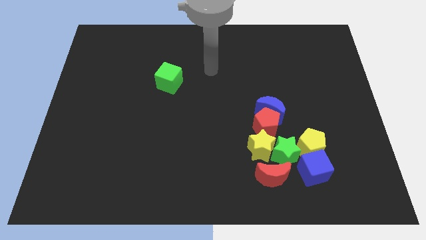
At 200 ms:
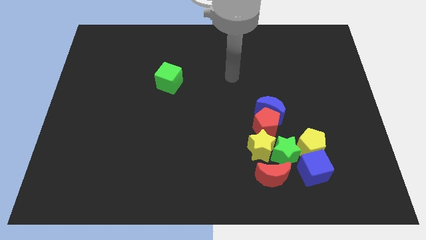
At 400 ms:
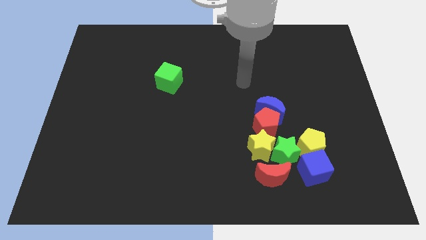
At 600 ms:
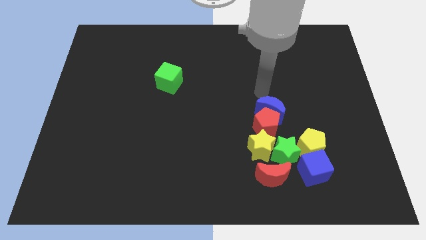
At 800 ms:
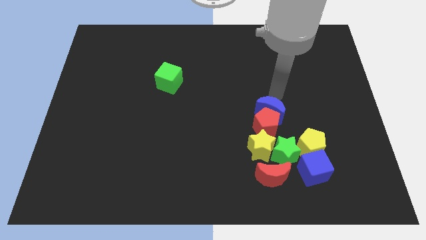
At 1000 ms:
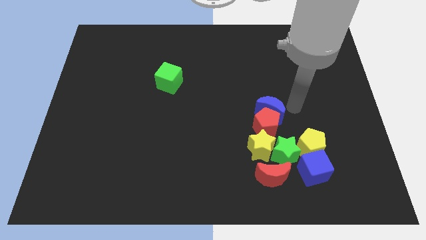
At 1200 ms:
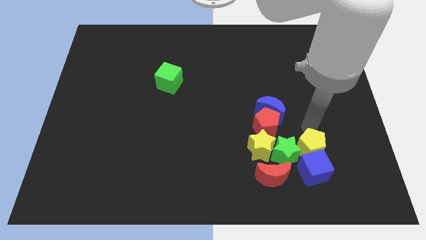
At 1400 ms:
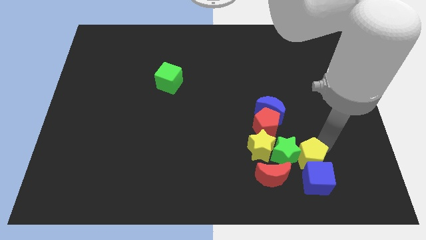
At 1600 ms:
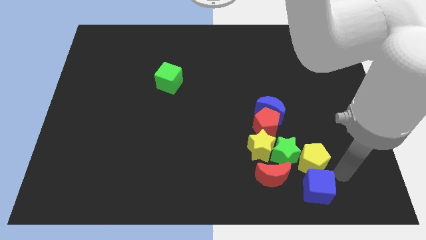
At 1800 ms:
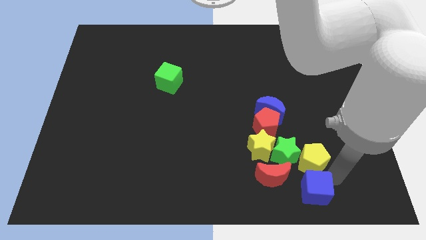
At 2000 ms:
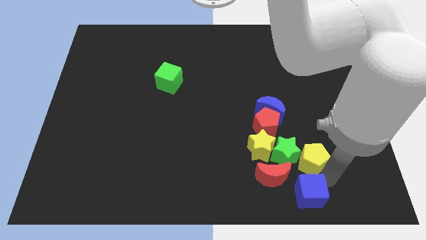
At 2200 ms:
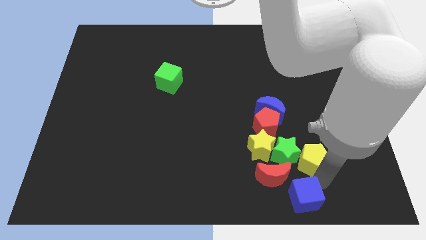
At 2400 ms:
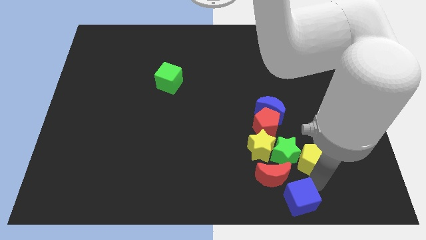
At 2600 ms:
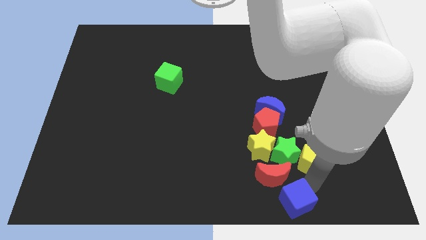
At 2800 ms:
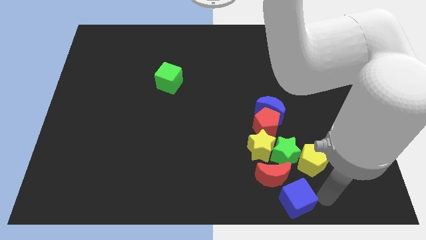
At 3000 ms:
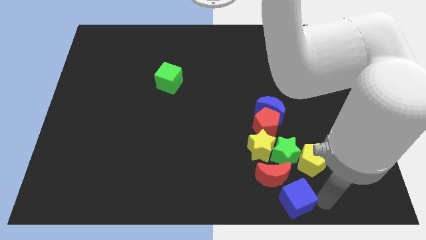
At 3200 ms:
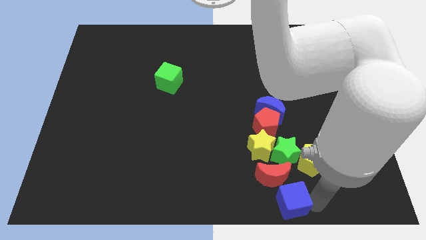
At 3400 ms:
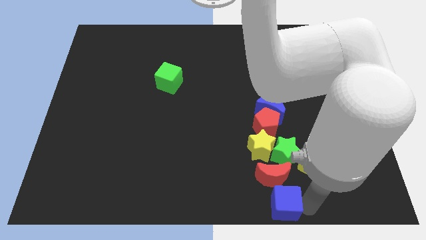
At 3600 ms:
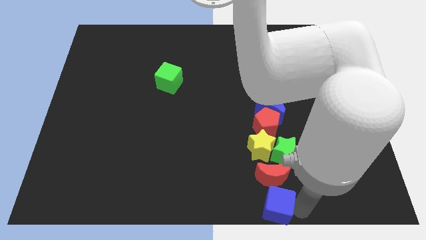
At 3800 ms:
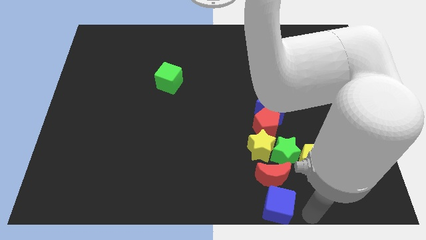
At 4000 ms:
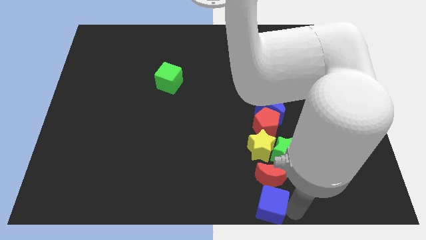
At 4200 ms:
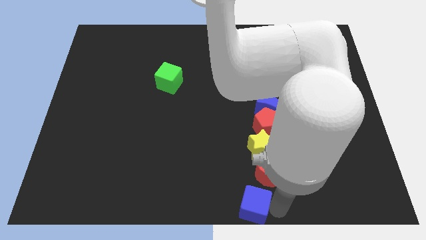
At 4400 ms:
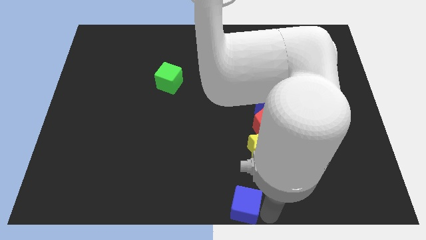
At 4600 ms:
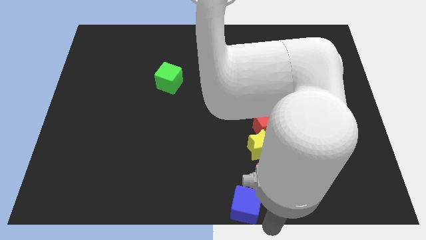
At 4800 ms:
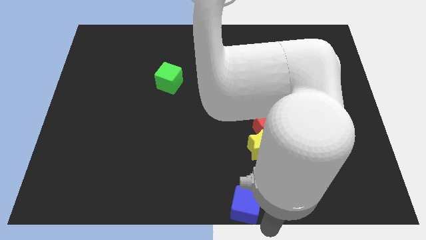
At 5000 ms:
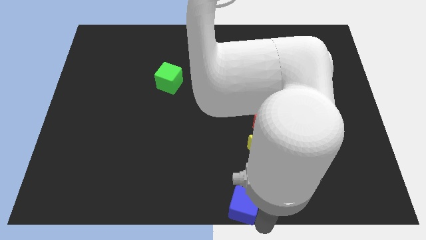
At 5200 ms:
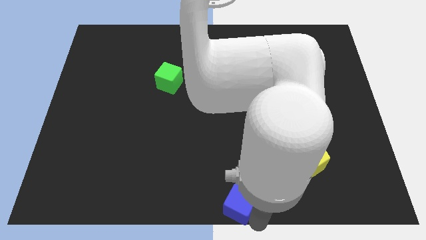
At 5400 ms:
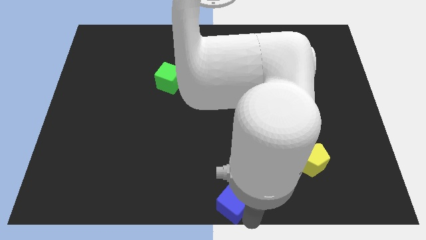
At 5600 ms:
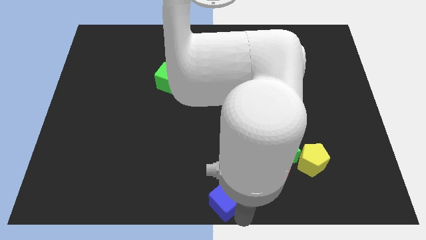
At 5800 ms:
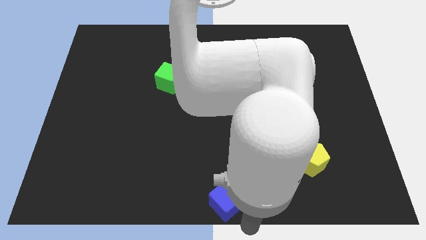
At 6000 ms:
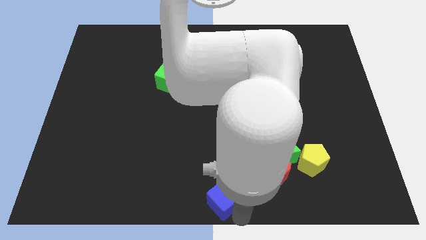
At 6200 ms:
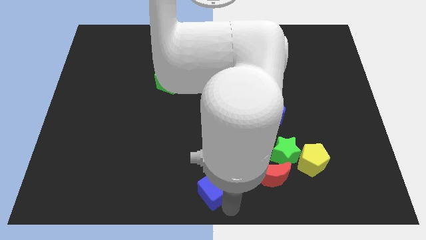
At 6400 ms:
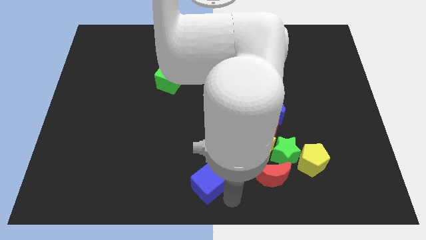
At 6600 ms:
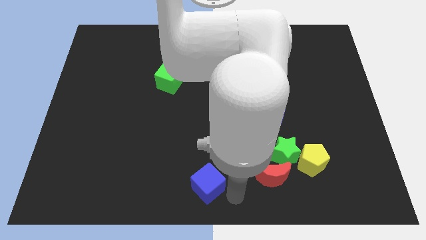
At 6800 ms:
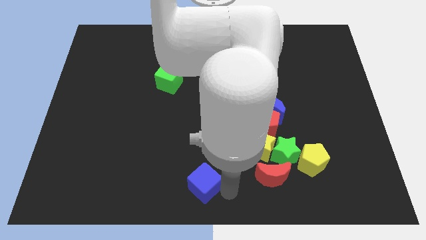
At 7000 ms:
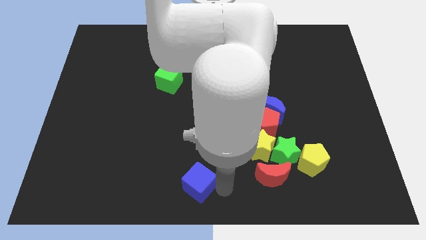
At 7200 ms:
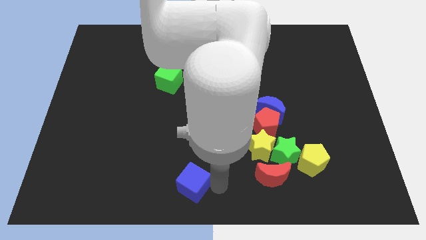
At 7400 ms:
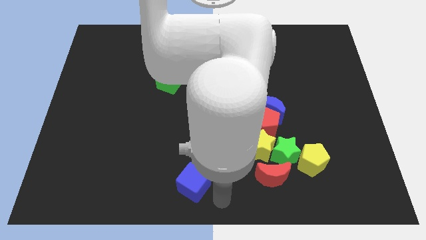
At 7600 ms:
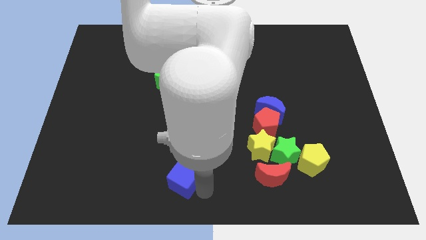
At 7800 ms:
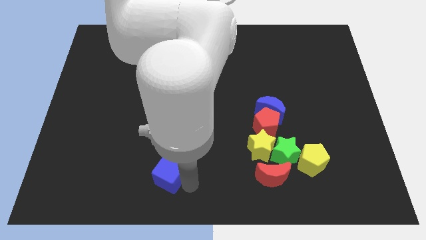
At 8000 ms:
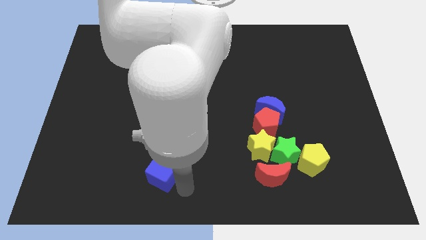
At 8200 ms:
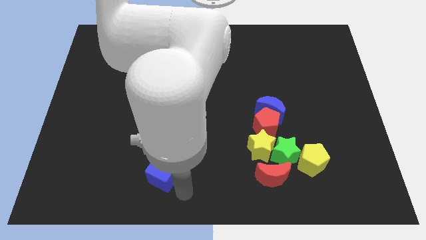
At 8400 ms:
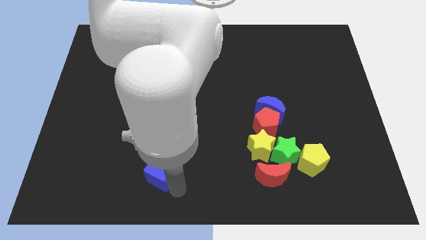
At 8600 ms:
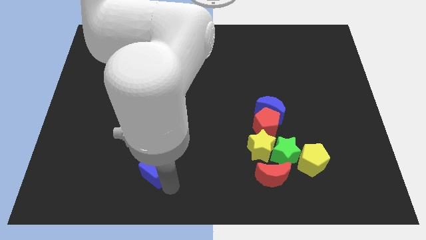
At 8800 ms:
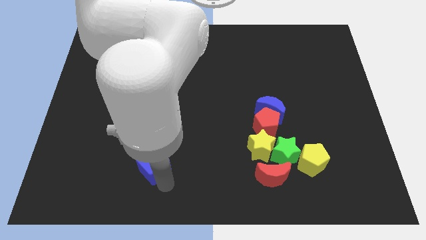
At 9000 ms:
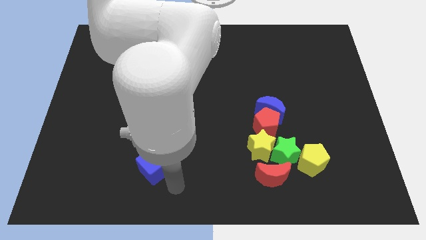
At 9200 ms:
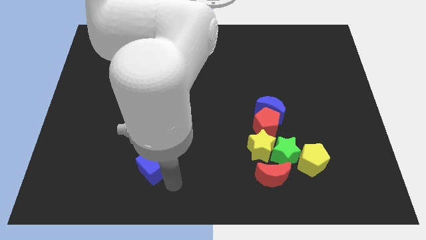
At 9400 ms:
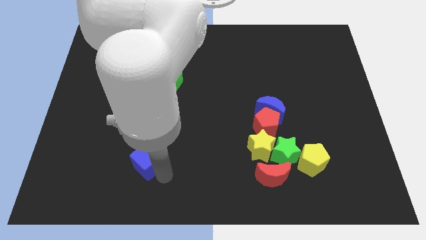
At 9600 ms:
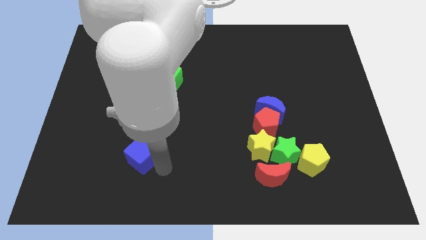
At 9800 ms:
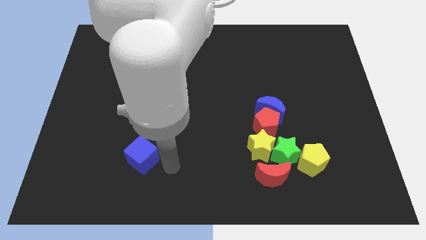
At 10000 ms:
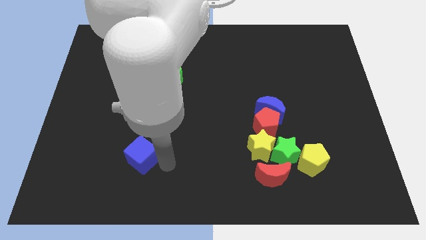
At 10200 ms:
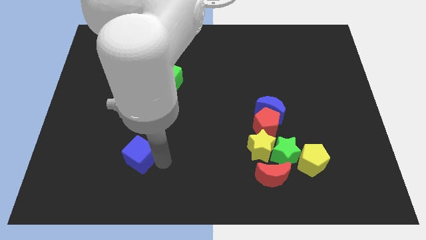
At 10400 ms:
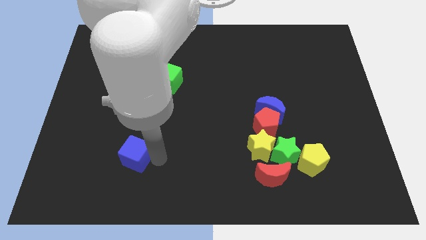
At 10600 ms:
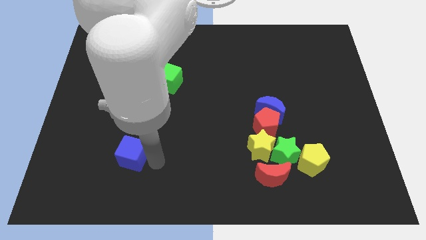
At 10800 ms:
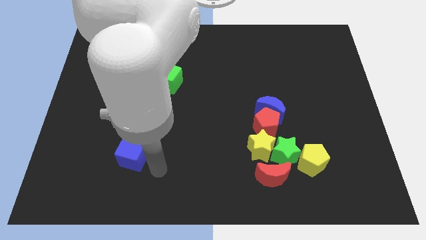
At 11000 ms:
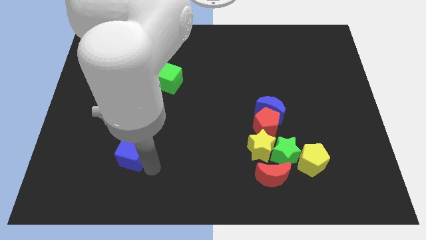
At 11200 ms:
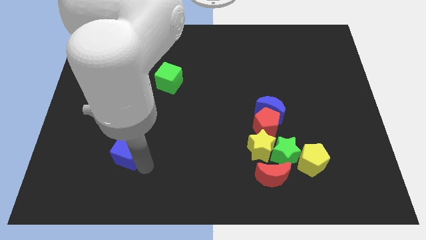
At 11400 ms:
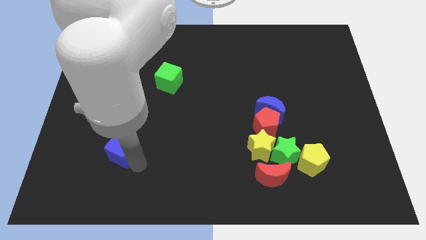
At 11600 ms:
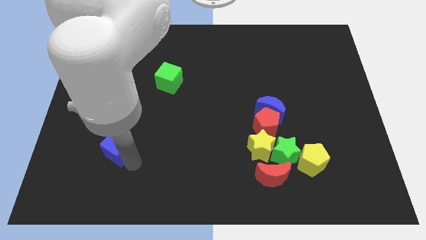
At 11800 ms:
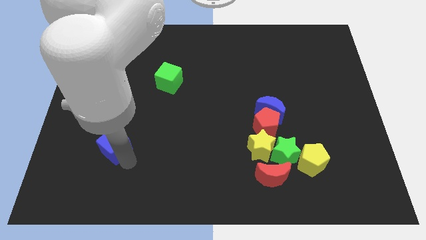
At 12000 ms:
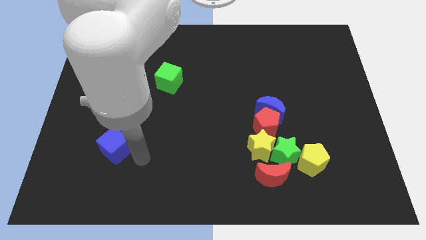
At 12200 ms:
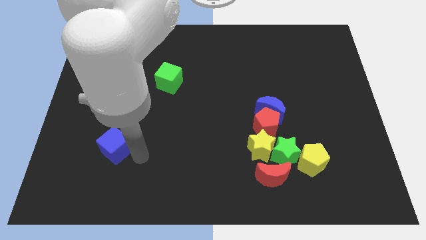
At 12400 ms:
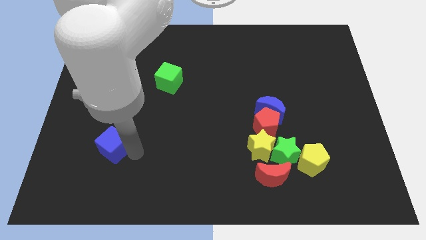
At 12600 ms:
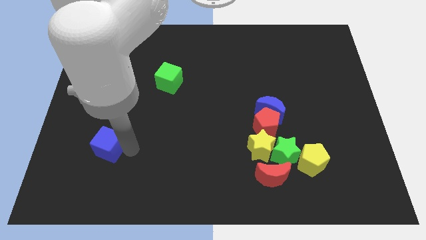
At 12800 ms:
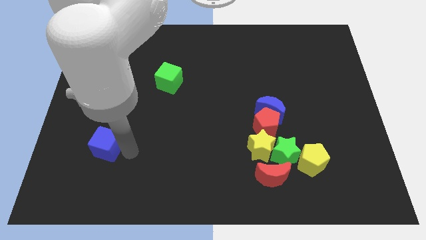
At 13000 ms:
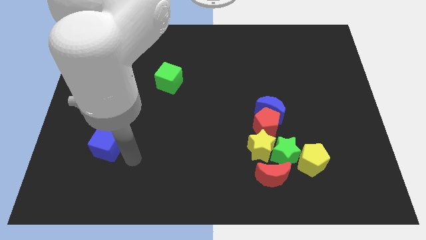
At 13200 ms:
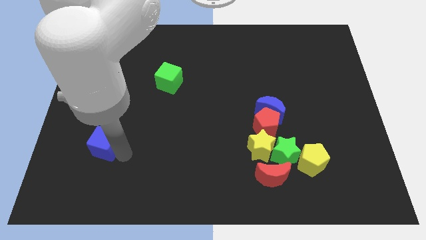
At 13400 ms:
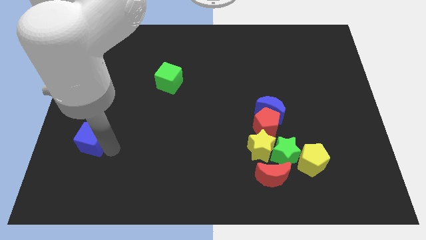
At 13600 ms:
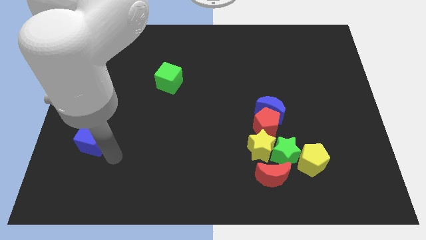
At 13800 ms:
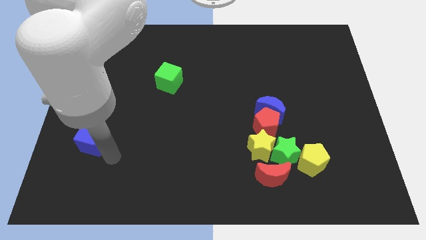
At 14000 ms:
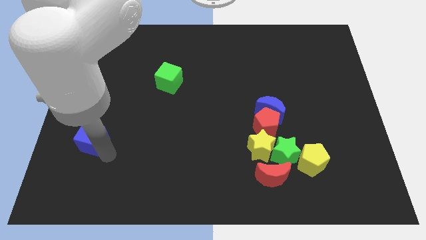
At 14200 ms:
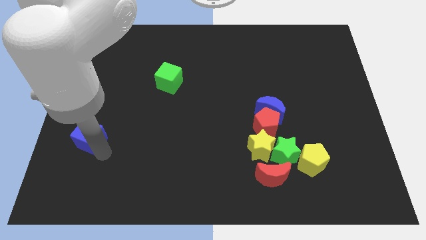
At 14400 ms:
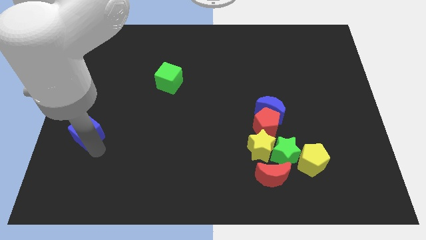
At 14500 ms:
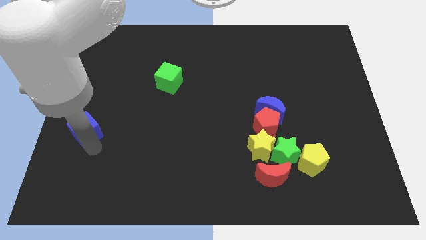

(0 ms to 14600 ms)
slide the blue cube to the left side of the board
